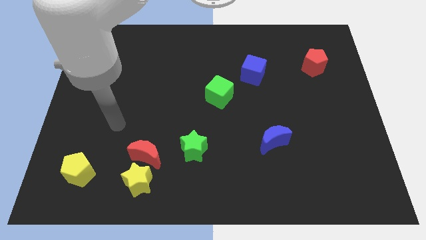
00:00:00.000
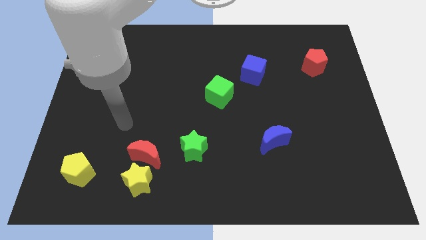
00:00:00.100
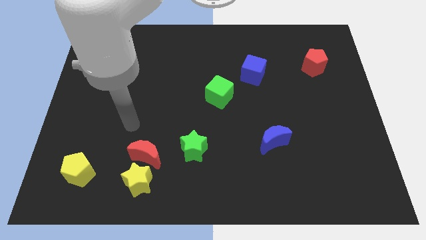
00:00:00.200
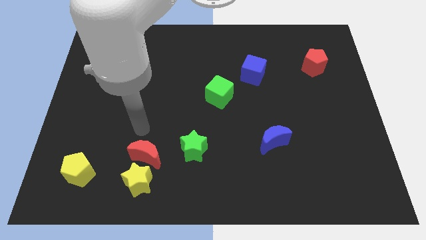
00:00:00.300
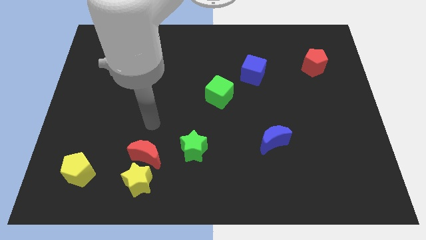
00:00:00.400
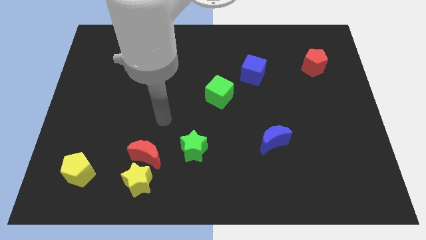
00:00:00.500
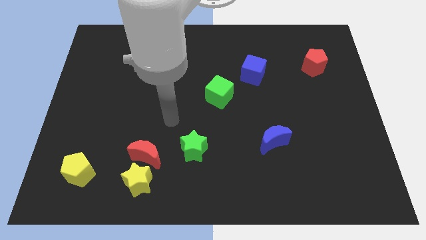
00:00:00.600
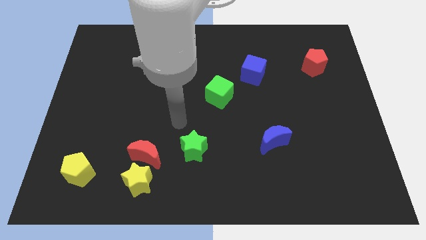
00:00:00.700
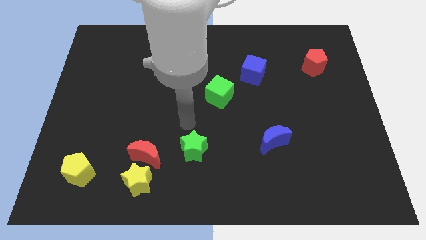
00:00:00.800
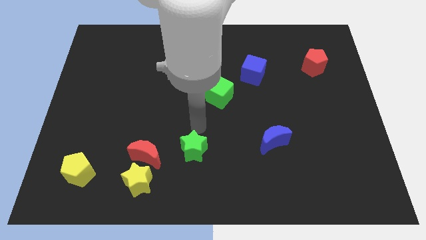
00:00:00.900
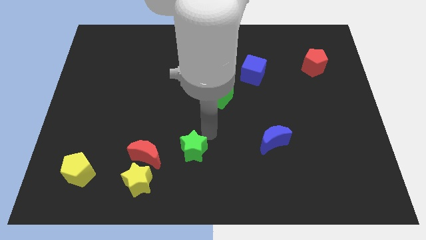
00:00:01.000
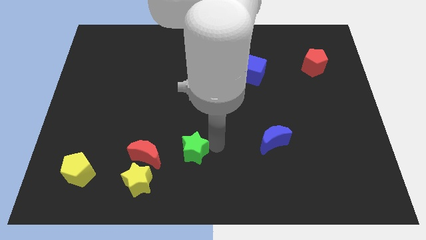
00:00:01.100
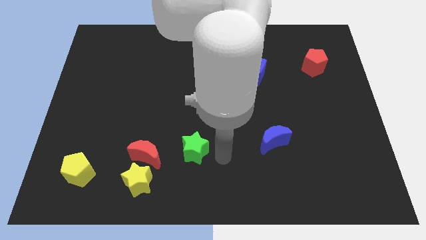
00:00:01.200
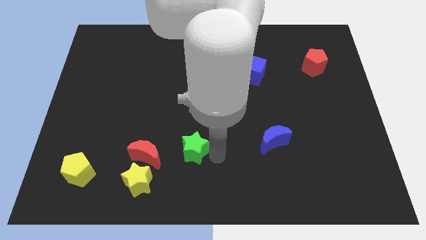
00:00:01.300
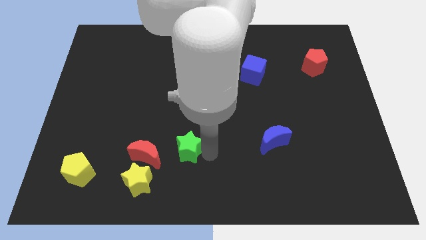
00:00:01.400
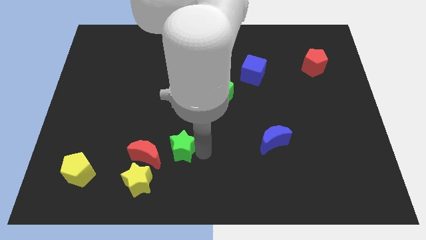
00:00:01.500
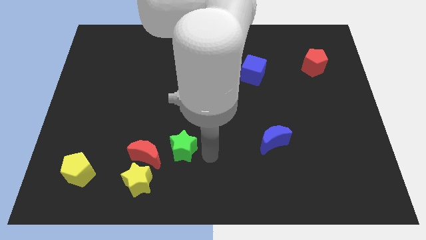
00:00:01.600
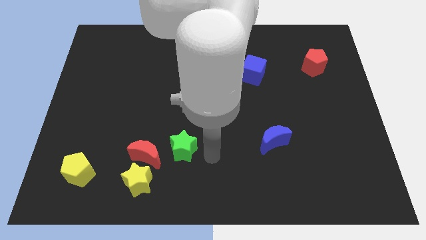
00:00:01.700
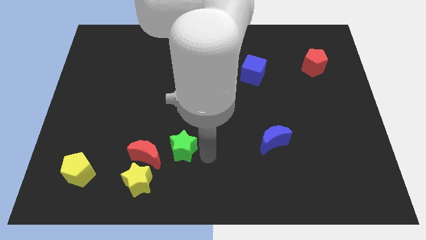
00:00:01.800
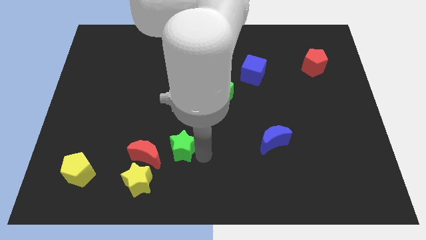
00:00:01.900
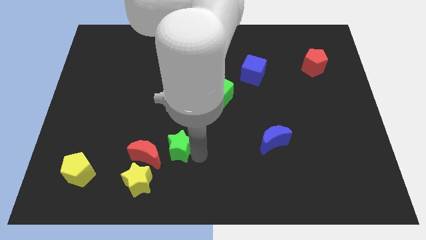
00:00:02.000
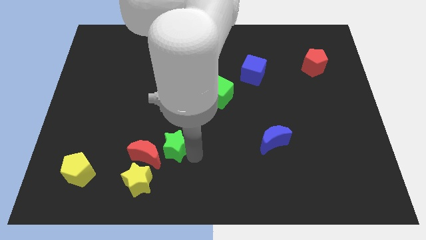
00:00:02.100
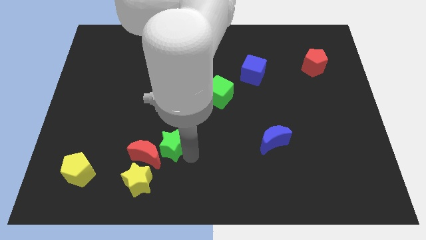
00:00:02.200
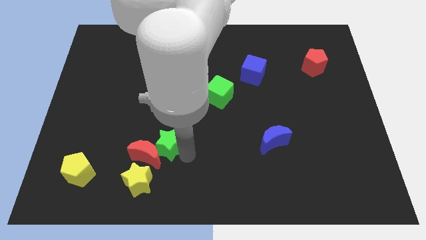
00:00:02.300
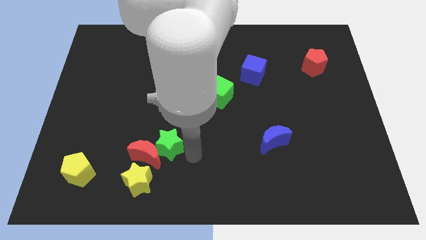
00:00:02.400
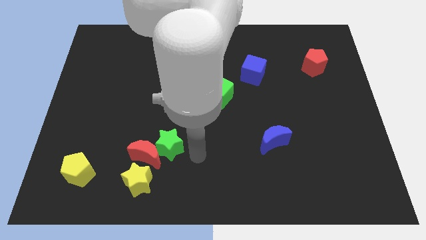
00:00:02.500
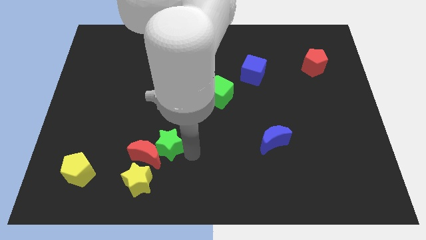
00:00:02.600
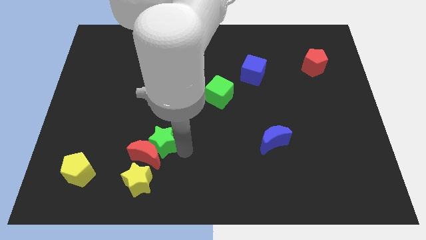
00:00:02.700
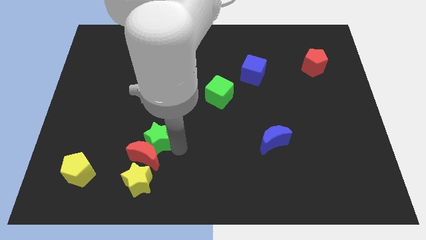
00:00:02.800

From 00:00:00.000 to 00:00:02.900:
slightly move the green star to the left

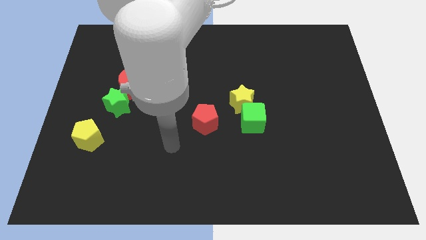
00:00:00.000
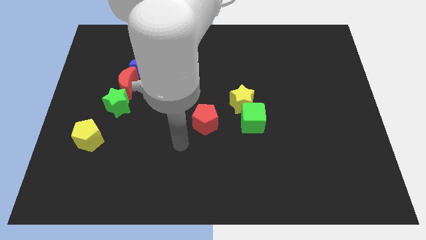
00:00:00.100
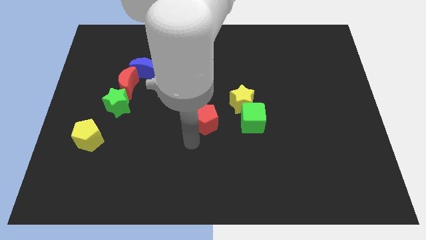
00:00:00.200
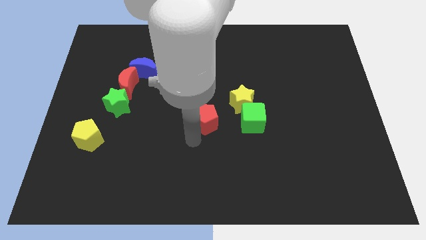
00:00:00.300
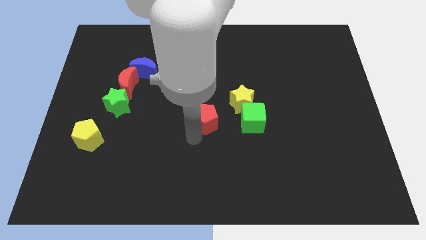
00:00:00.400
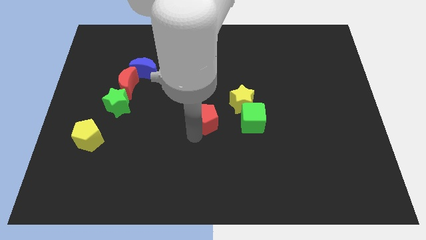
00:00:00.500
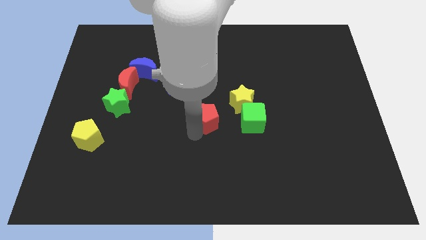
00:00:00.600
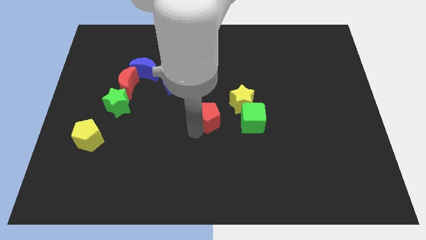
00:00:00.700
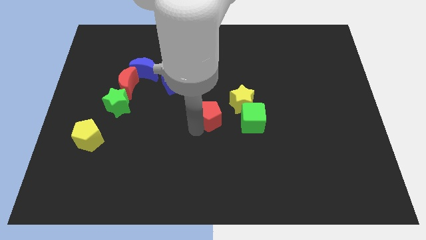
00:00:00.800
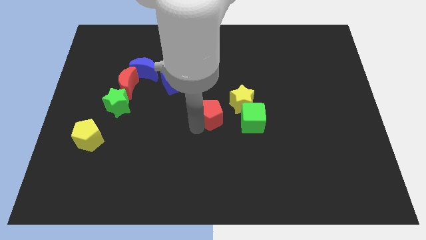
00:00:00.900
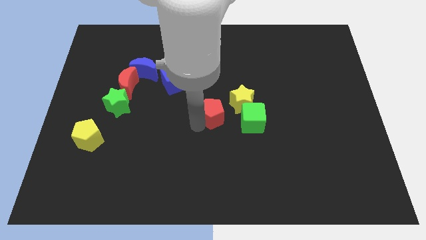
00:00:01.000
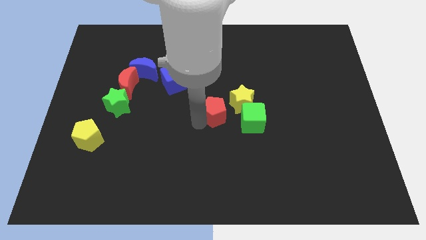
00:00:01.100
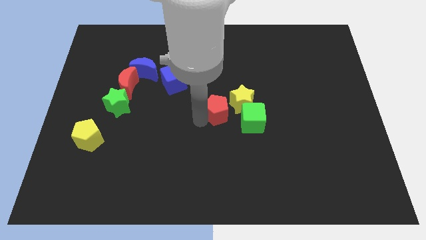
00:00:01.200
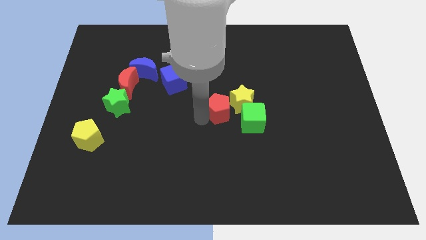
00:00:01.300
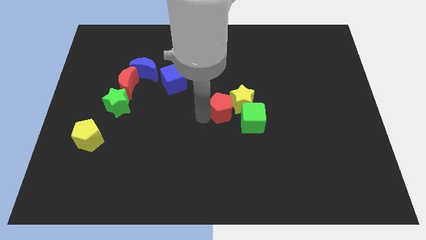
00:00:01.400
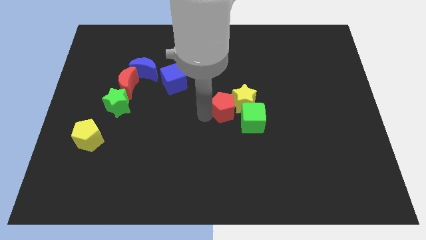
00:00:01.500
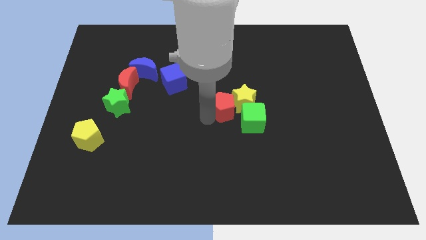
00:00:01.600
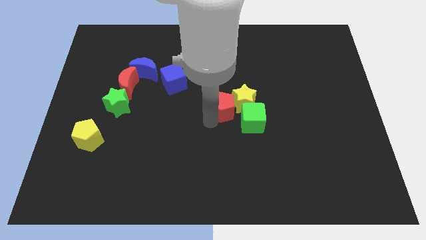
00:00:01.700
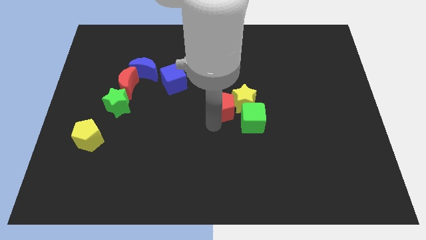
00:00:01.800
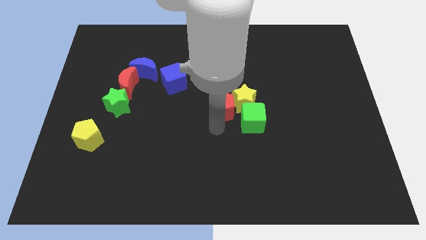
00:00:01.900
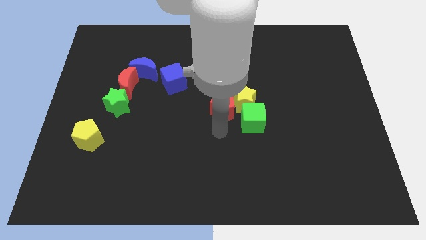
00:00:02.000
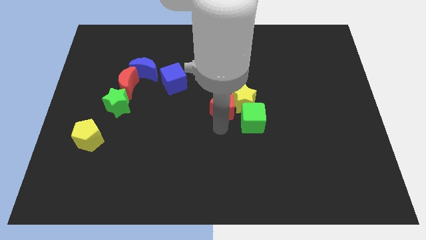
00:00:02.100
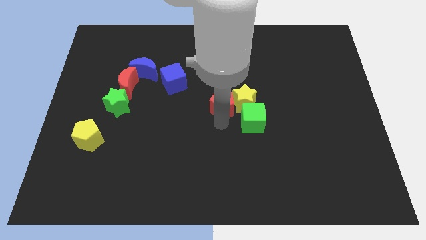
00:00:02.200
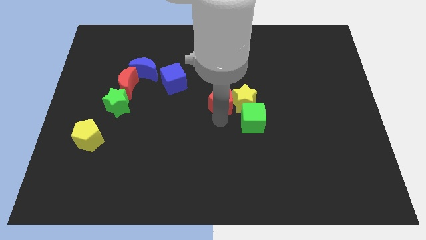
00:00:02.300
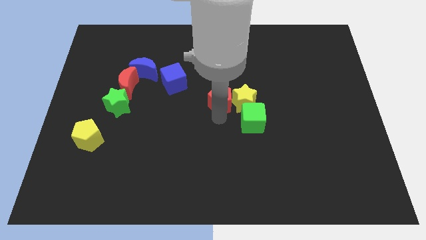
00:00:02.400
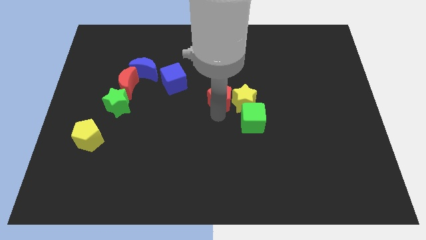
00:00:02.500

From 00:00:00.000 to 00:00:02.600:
push the red pentagon a bit up and to the right diagonally

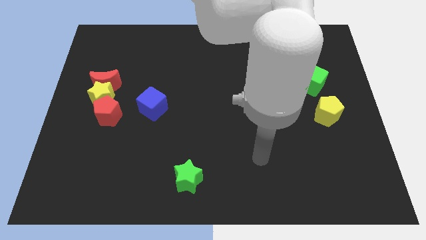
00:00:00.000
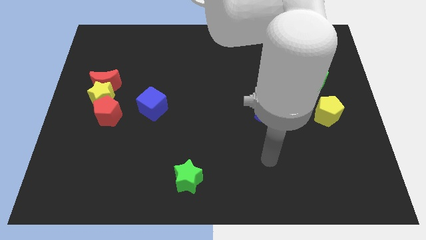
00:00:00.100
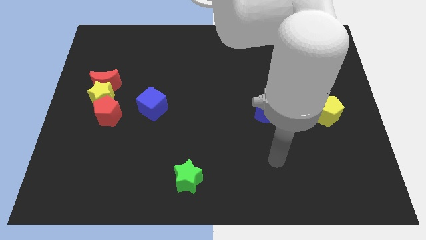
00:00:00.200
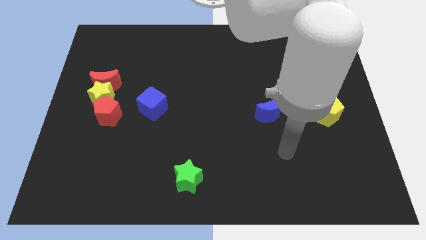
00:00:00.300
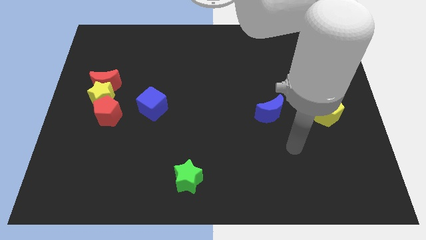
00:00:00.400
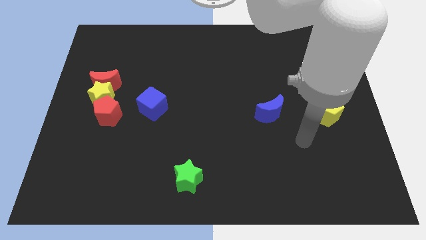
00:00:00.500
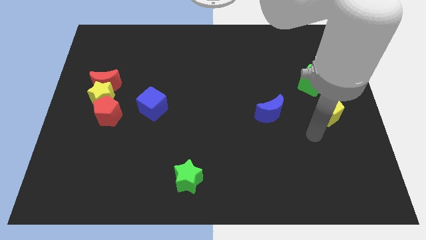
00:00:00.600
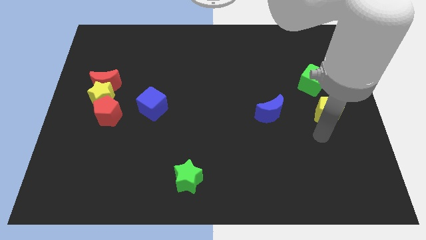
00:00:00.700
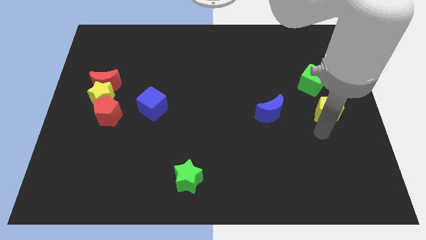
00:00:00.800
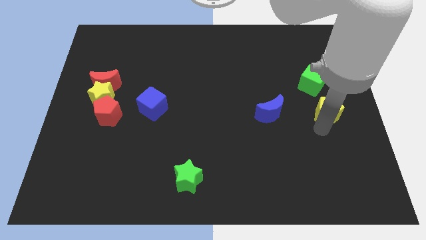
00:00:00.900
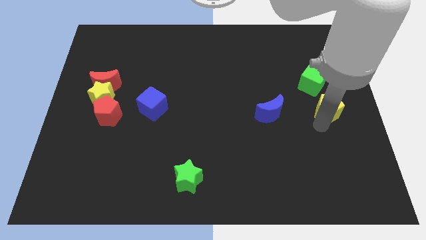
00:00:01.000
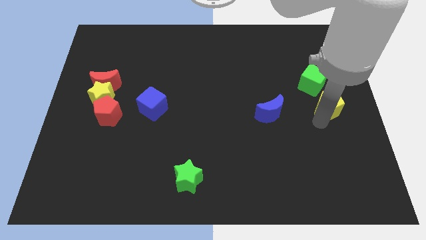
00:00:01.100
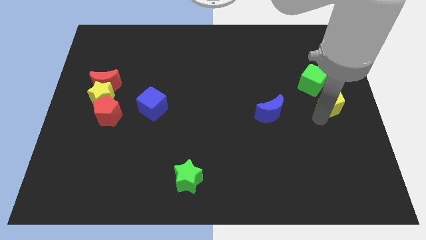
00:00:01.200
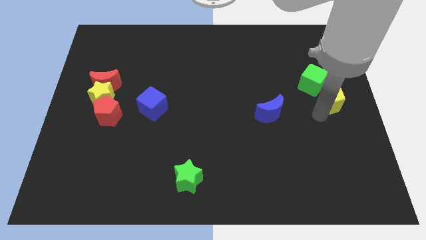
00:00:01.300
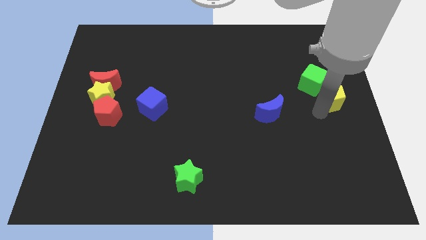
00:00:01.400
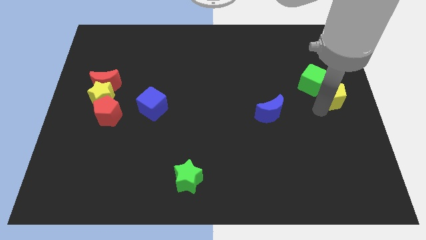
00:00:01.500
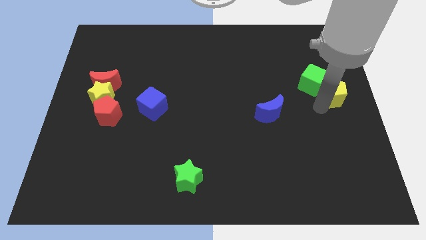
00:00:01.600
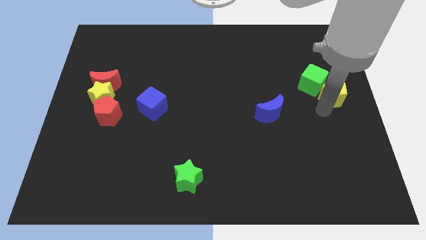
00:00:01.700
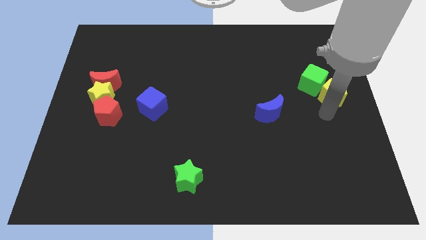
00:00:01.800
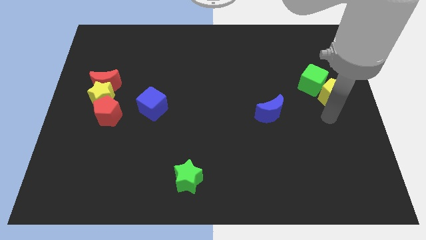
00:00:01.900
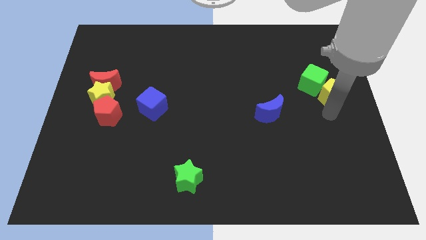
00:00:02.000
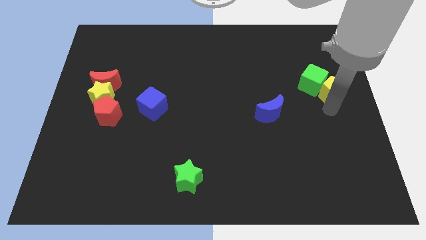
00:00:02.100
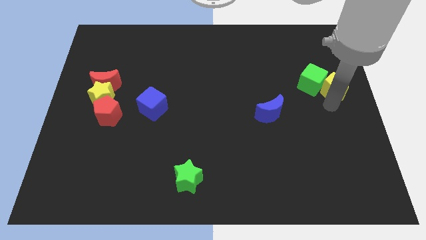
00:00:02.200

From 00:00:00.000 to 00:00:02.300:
slide the yellow pentagon upwards somewhat

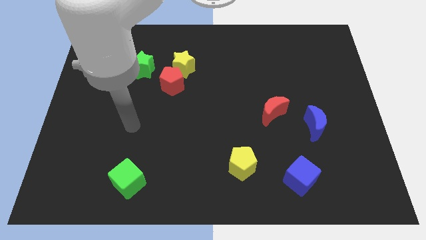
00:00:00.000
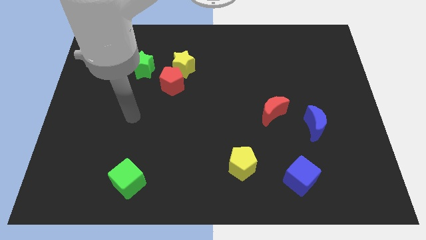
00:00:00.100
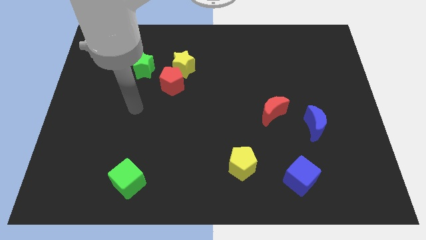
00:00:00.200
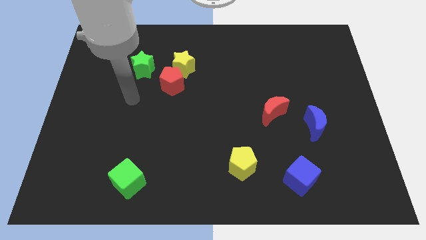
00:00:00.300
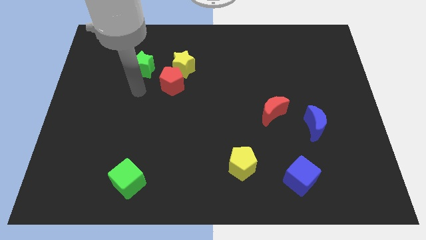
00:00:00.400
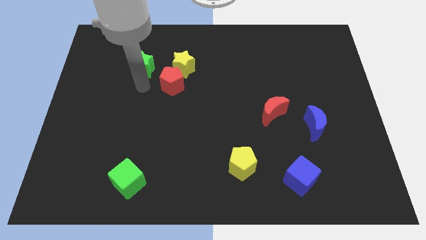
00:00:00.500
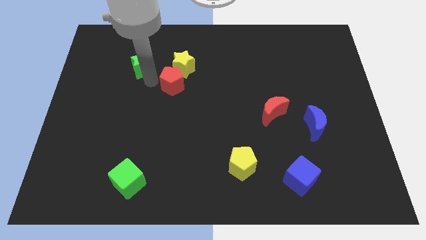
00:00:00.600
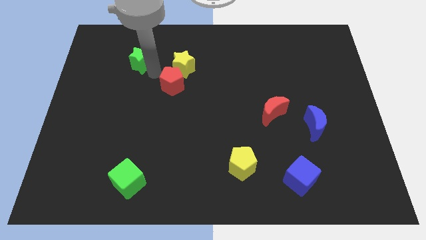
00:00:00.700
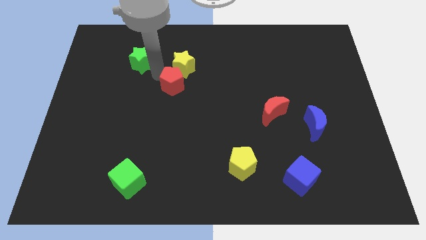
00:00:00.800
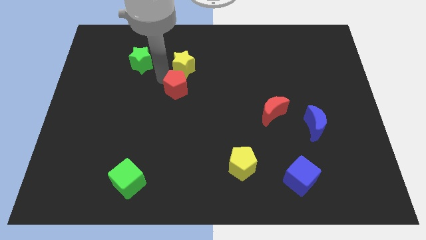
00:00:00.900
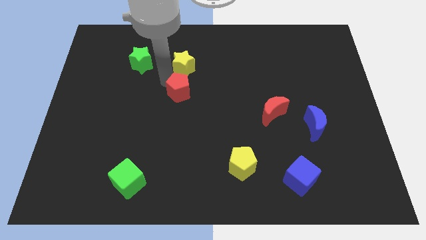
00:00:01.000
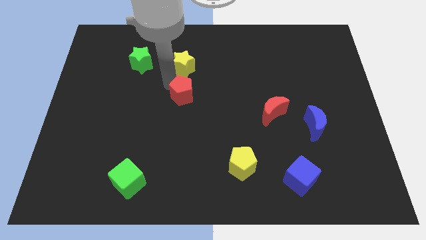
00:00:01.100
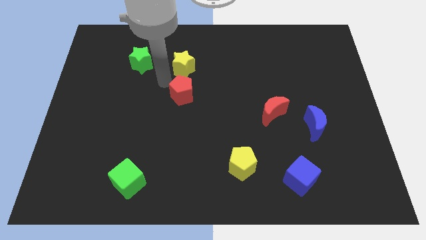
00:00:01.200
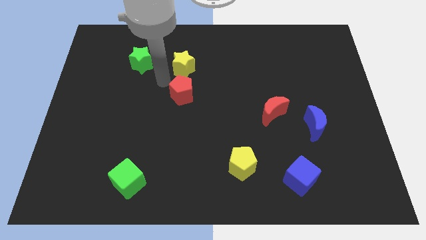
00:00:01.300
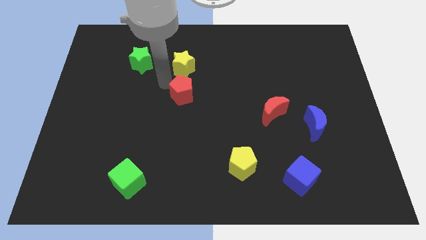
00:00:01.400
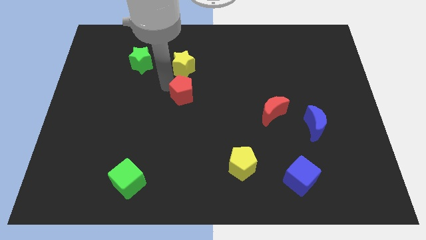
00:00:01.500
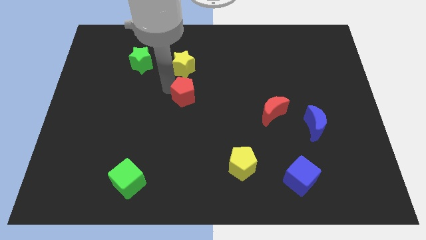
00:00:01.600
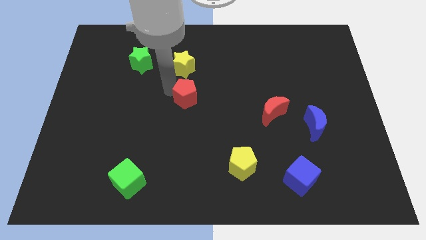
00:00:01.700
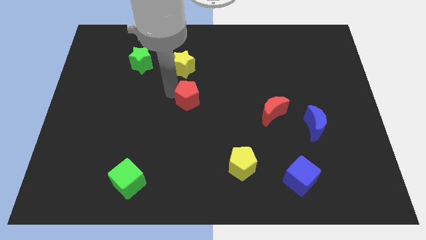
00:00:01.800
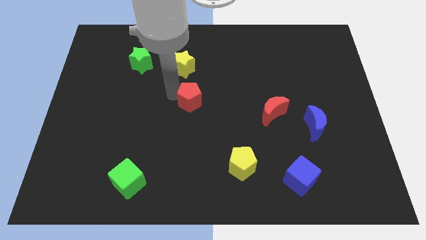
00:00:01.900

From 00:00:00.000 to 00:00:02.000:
push the red pentagon a little down and then to the right
